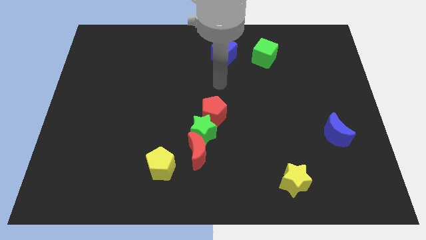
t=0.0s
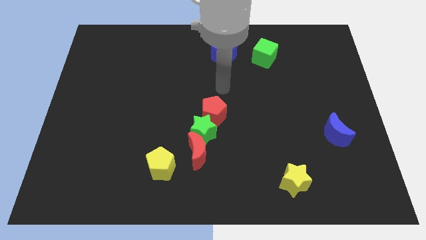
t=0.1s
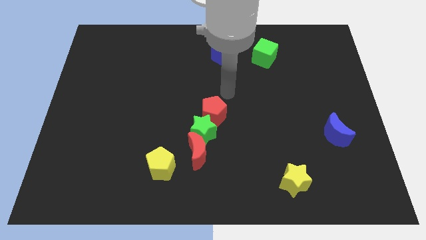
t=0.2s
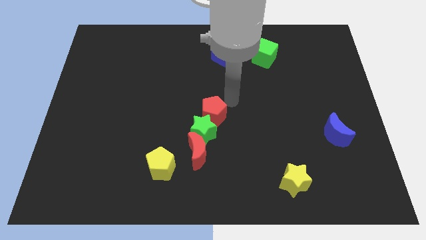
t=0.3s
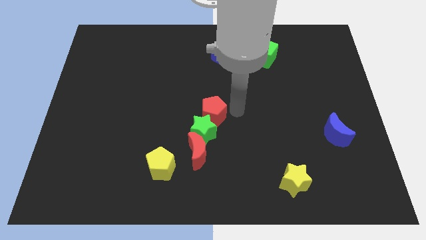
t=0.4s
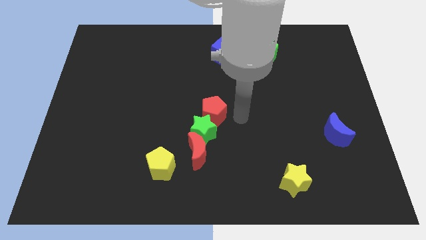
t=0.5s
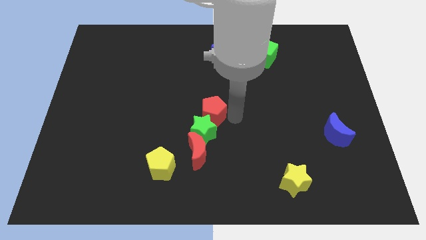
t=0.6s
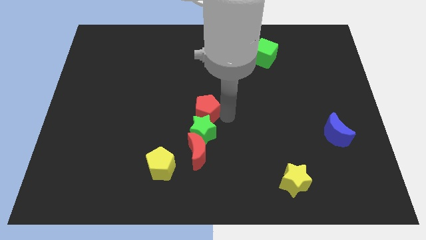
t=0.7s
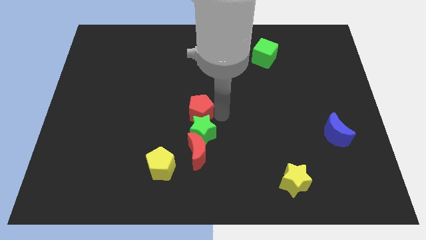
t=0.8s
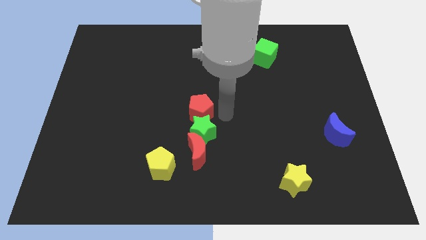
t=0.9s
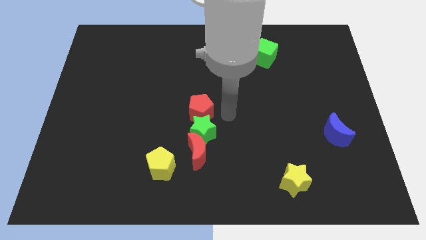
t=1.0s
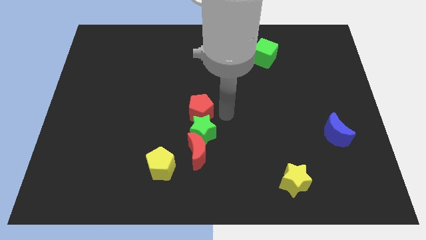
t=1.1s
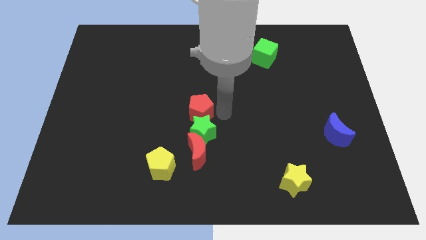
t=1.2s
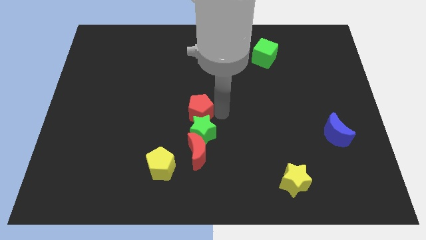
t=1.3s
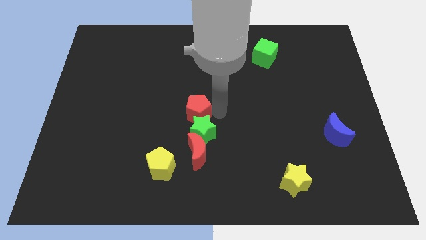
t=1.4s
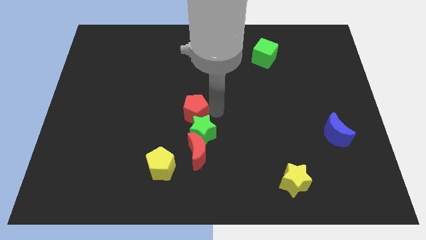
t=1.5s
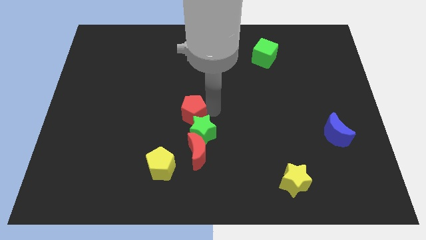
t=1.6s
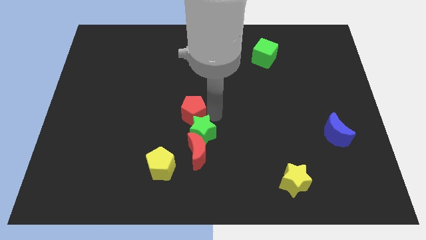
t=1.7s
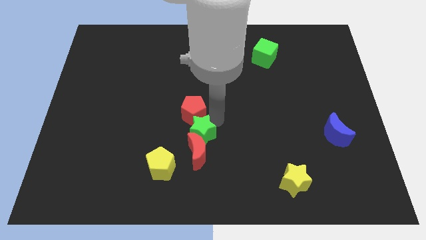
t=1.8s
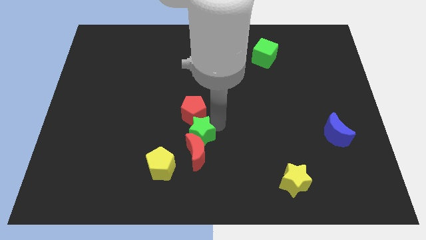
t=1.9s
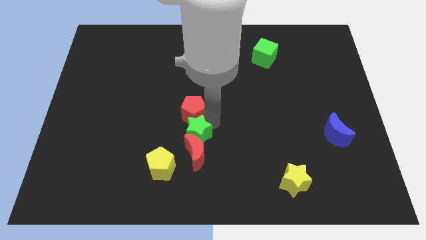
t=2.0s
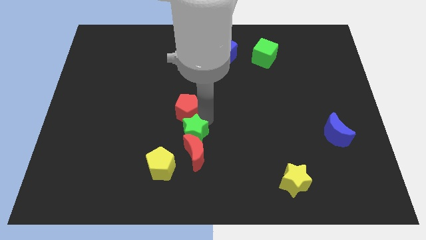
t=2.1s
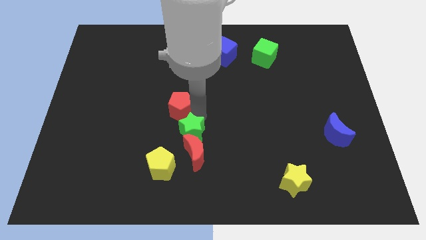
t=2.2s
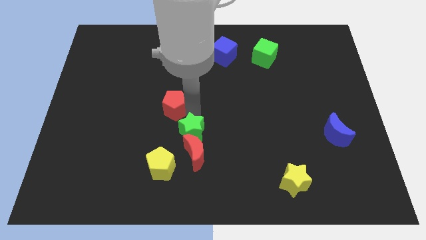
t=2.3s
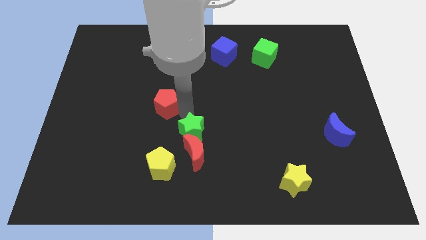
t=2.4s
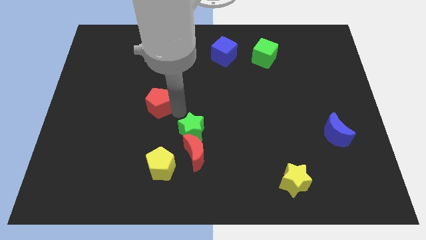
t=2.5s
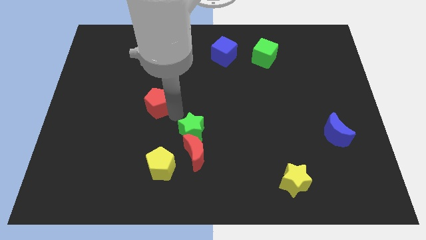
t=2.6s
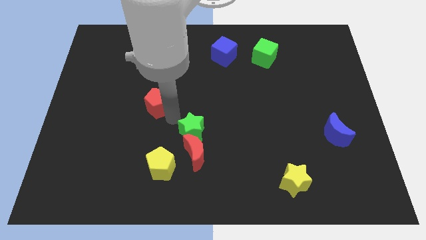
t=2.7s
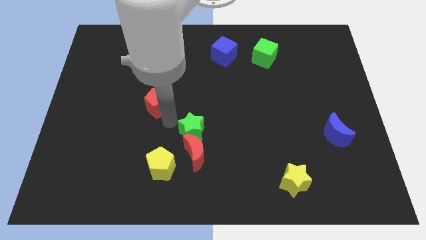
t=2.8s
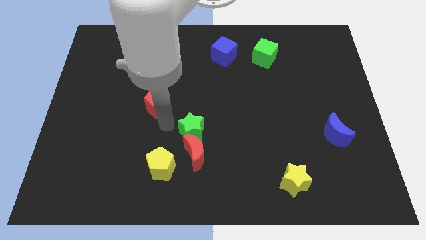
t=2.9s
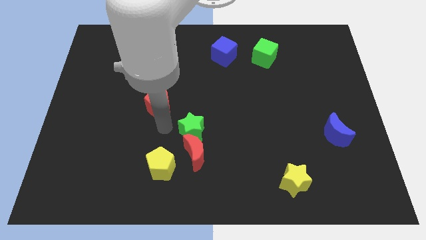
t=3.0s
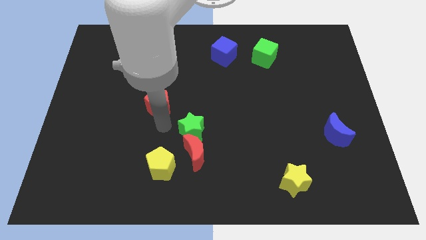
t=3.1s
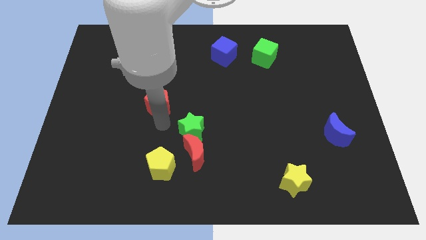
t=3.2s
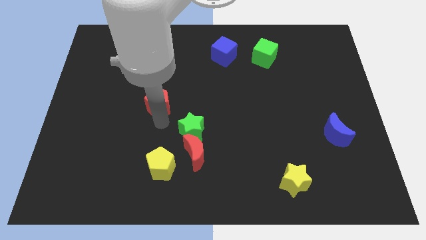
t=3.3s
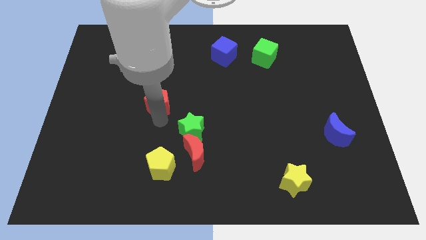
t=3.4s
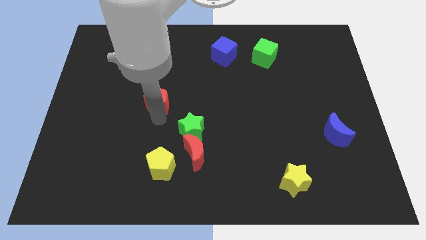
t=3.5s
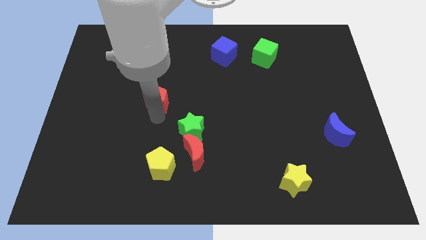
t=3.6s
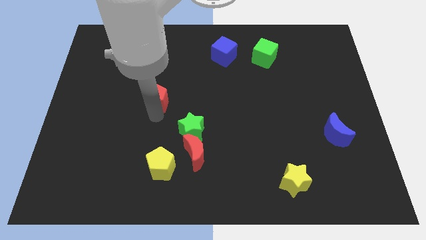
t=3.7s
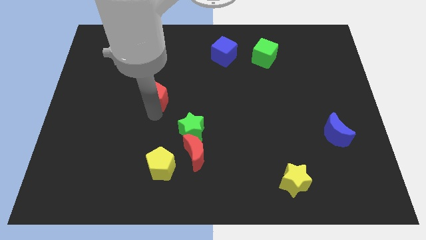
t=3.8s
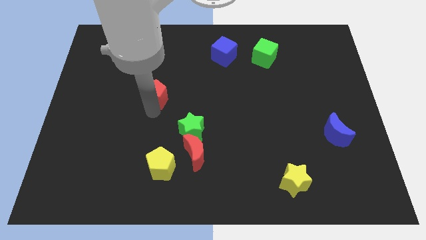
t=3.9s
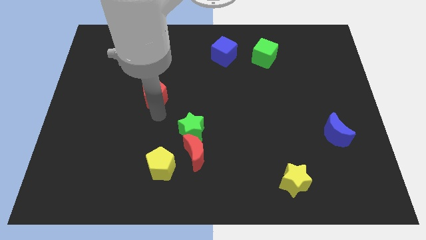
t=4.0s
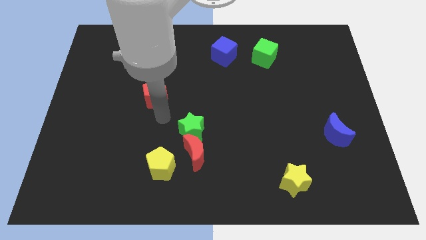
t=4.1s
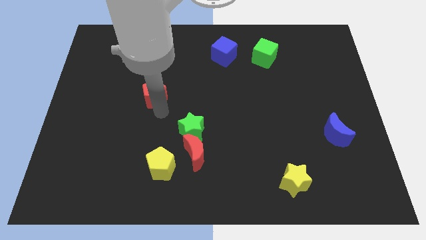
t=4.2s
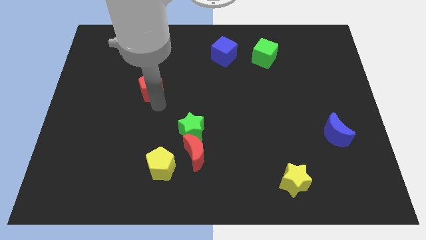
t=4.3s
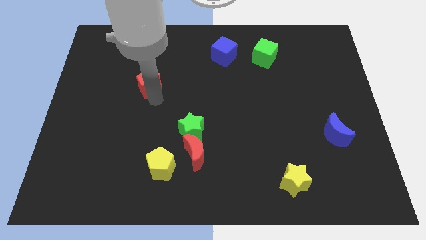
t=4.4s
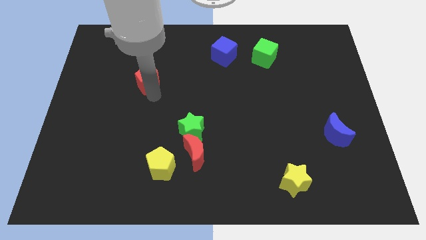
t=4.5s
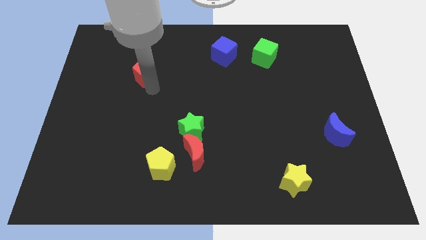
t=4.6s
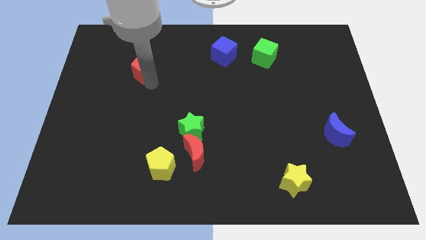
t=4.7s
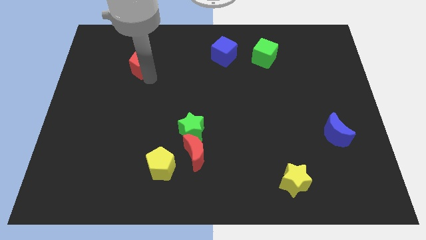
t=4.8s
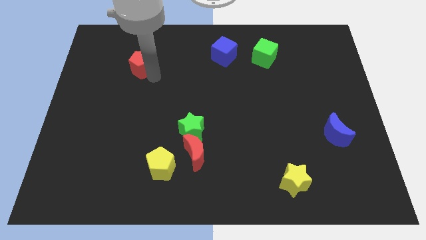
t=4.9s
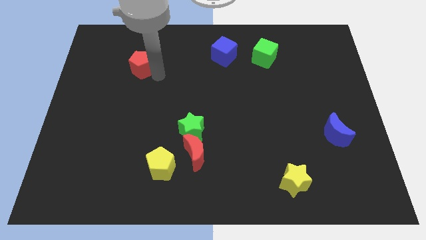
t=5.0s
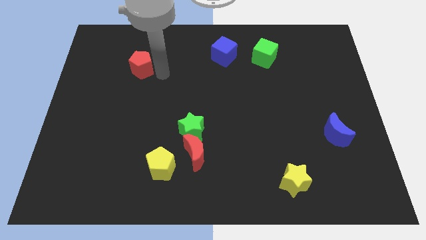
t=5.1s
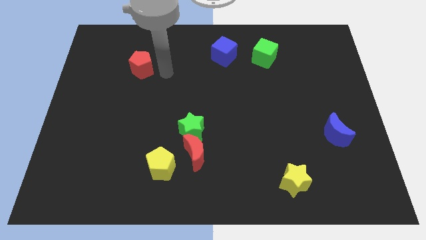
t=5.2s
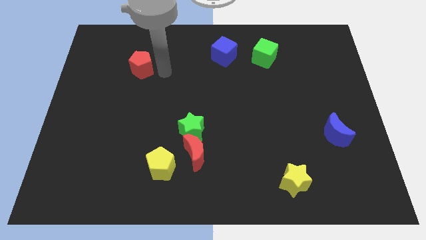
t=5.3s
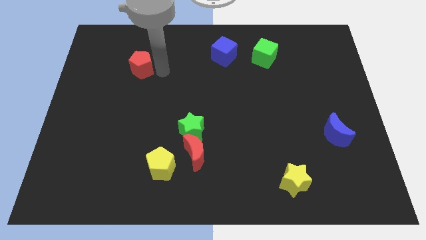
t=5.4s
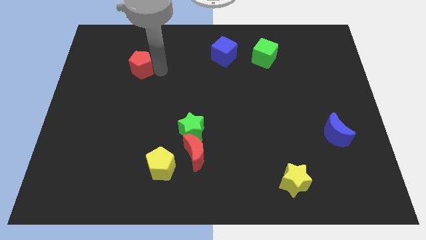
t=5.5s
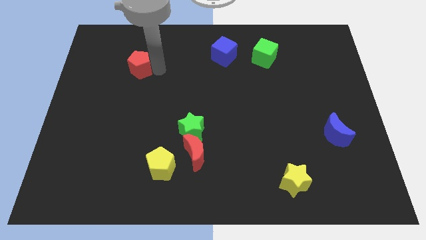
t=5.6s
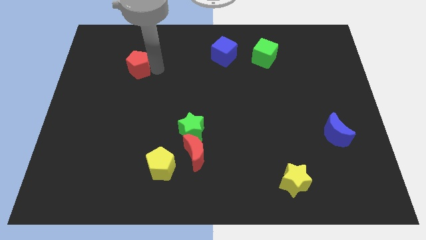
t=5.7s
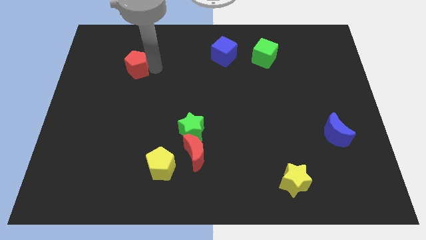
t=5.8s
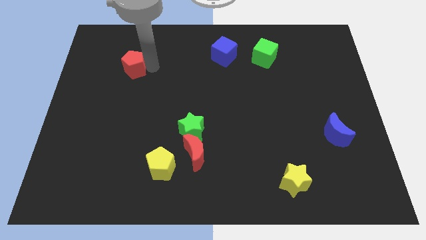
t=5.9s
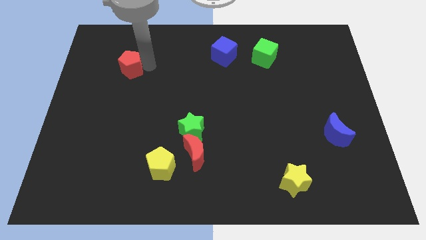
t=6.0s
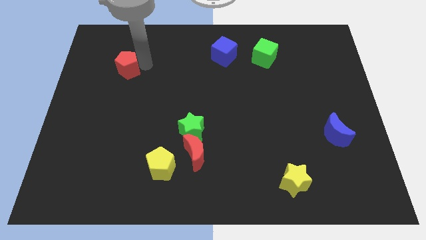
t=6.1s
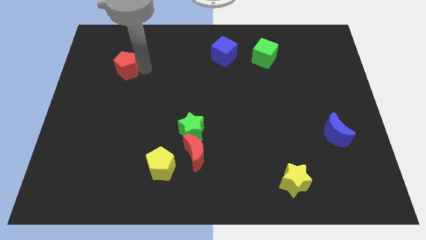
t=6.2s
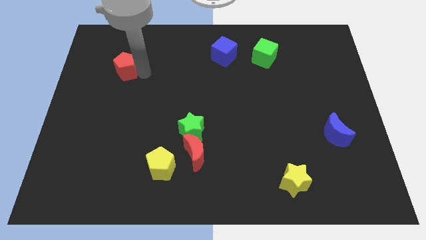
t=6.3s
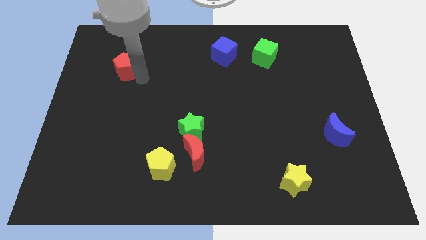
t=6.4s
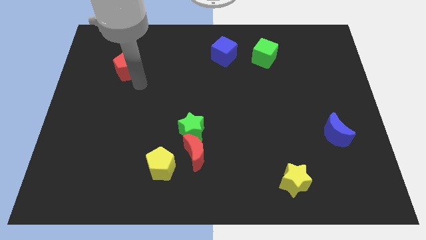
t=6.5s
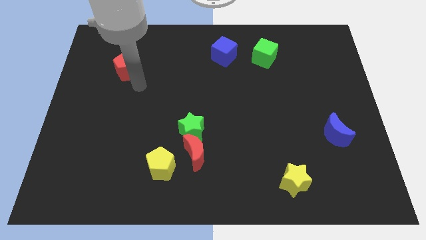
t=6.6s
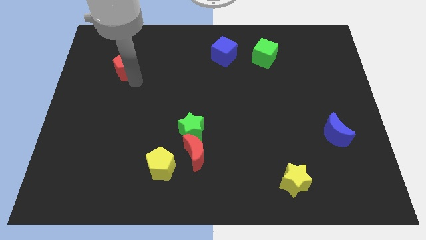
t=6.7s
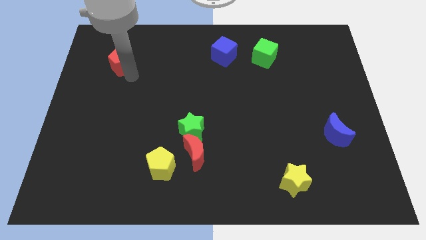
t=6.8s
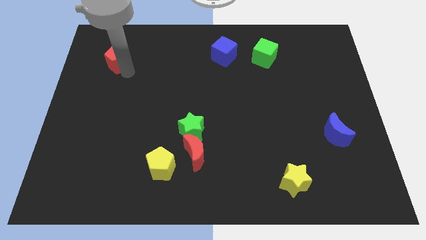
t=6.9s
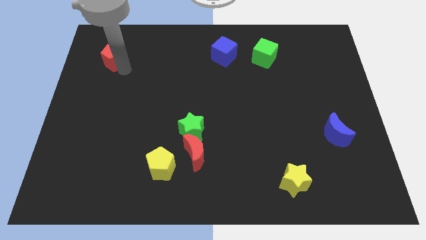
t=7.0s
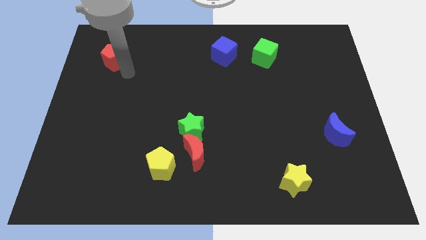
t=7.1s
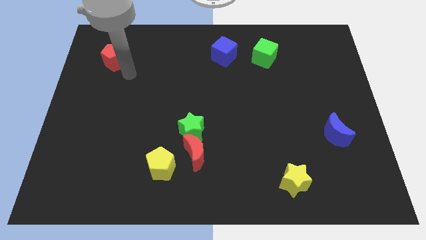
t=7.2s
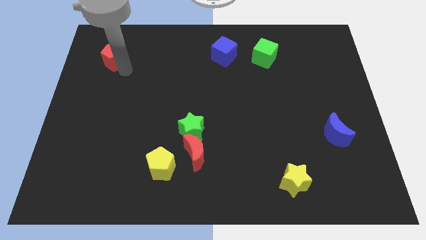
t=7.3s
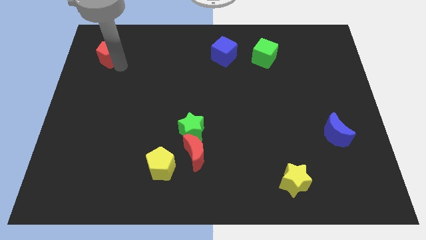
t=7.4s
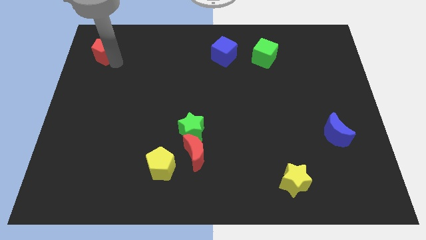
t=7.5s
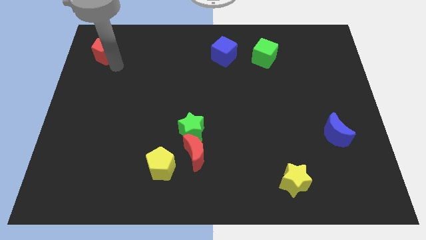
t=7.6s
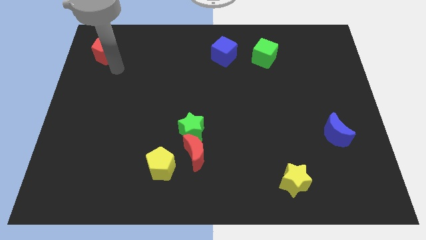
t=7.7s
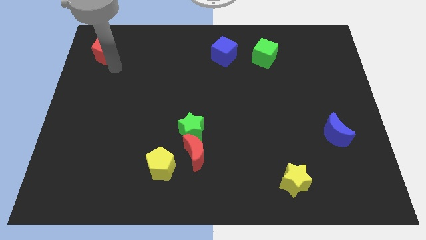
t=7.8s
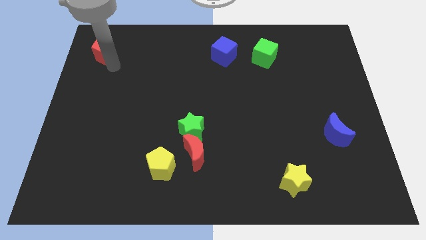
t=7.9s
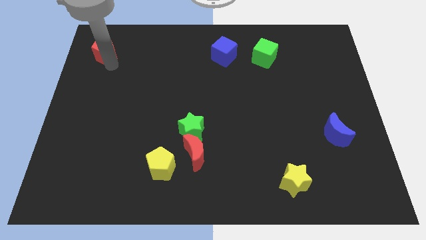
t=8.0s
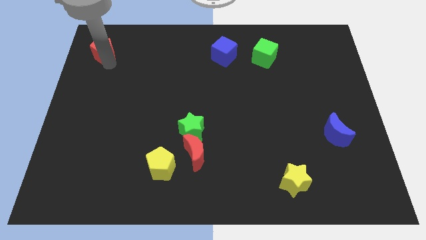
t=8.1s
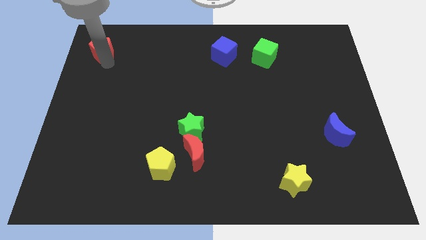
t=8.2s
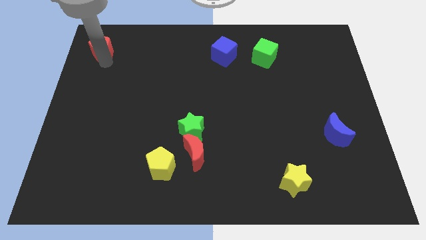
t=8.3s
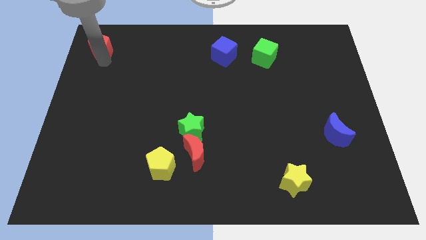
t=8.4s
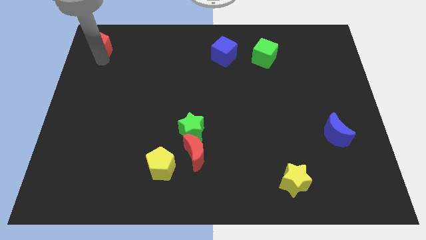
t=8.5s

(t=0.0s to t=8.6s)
slide the red pentagon to the top left of the board
